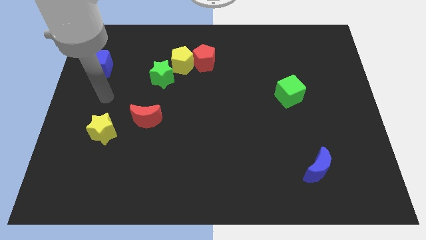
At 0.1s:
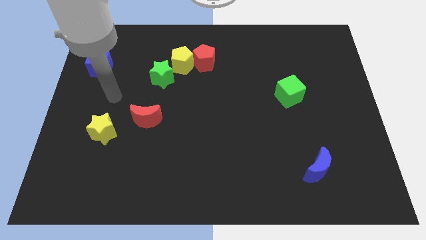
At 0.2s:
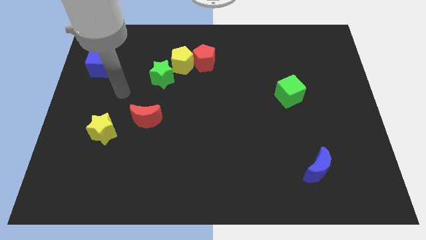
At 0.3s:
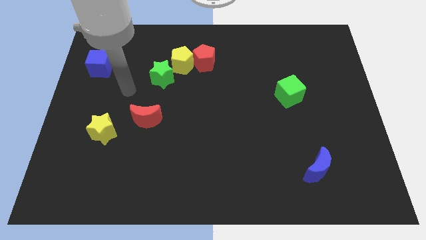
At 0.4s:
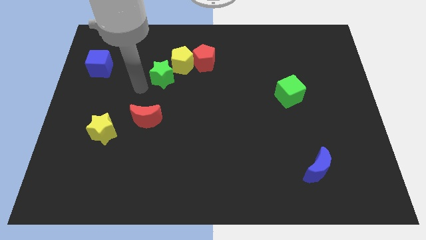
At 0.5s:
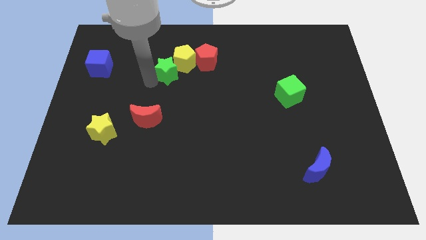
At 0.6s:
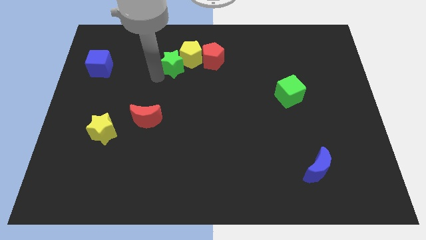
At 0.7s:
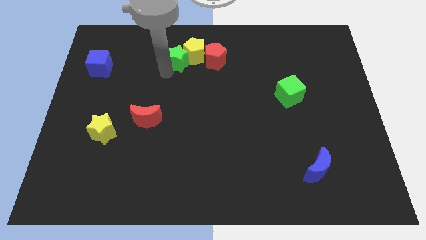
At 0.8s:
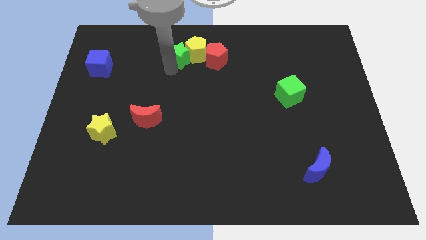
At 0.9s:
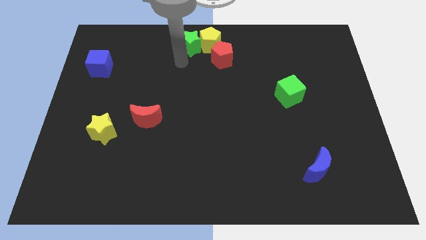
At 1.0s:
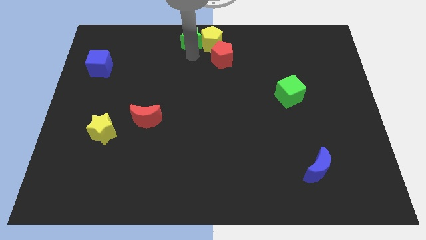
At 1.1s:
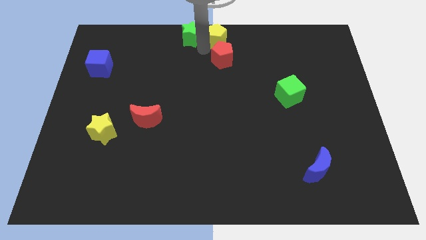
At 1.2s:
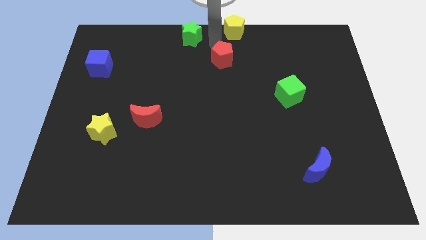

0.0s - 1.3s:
separate the red pentagon from the yellow pentagon

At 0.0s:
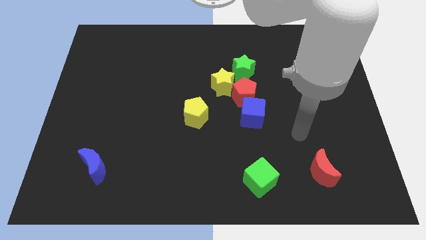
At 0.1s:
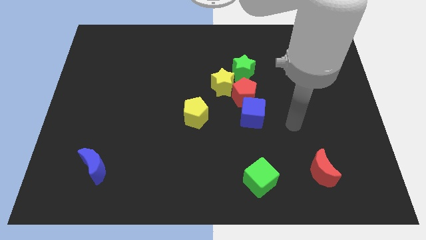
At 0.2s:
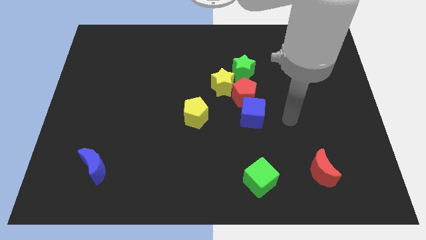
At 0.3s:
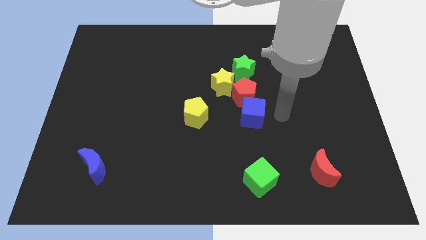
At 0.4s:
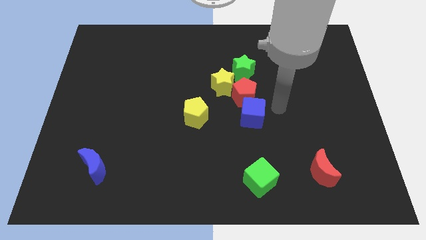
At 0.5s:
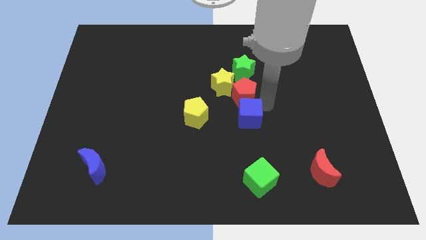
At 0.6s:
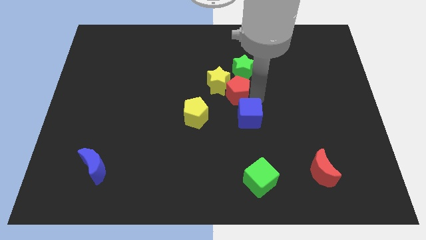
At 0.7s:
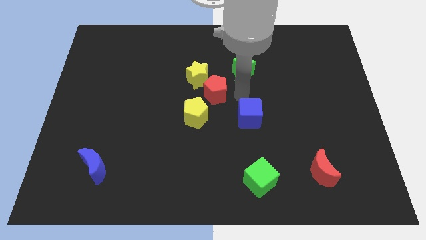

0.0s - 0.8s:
pull the blue cube apart from the red pentagon

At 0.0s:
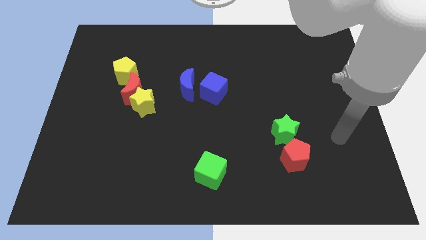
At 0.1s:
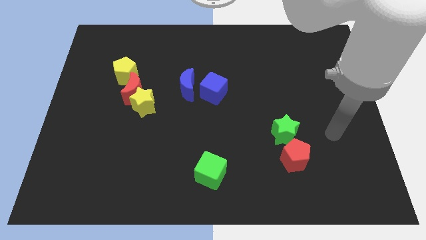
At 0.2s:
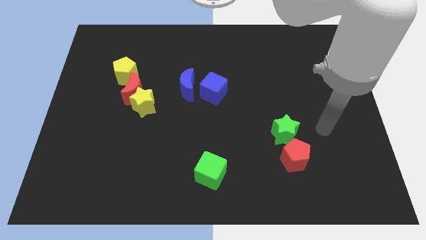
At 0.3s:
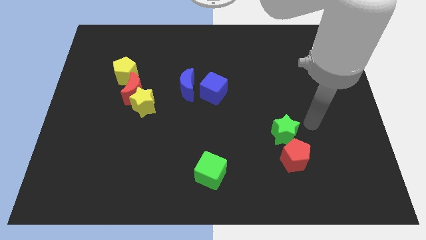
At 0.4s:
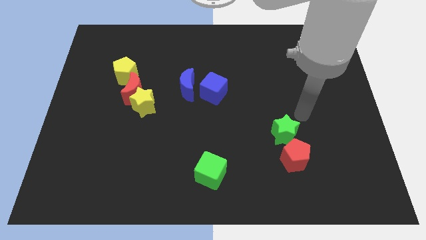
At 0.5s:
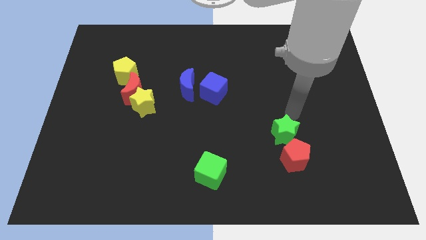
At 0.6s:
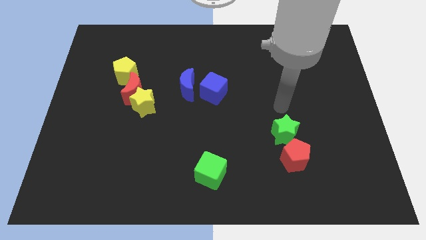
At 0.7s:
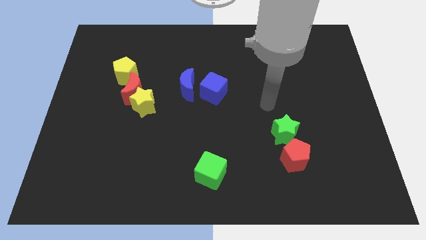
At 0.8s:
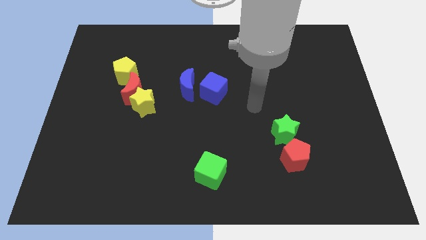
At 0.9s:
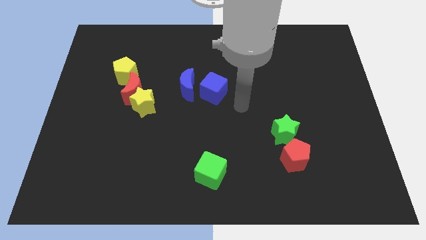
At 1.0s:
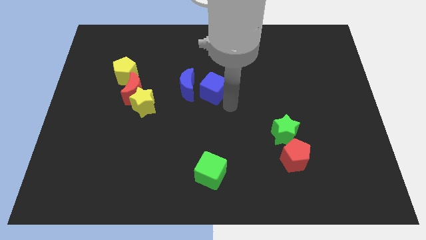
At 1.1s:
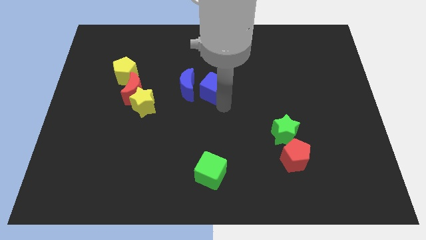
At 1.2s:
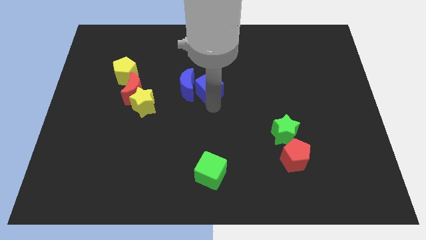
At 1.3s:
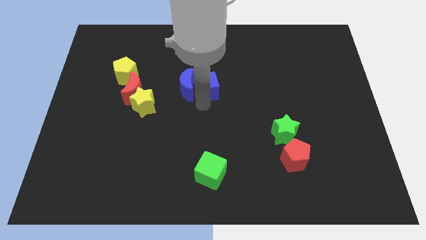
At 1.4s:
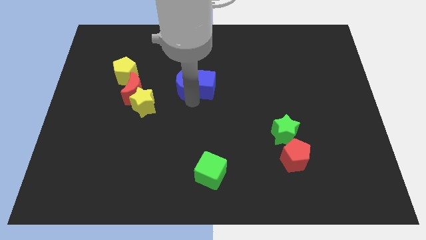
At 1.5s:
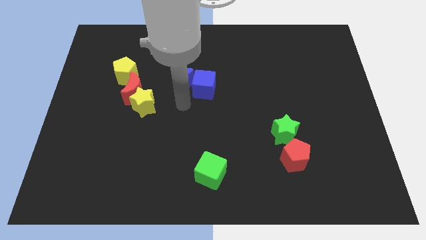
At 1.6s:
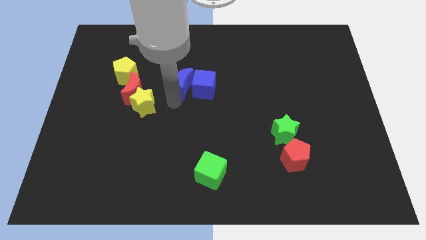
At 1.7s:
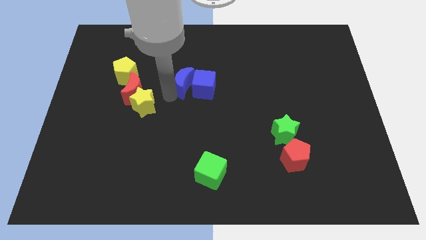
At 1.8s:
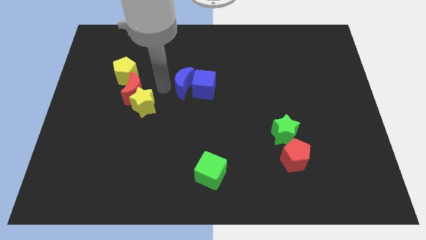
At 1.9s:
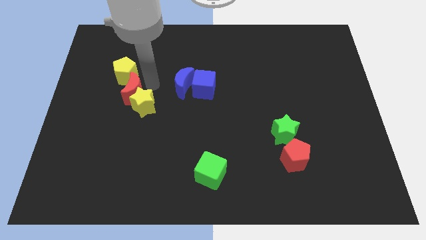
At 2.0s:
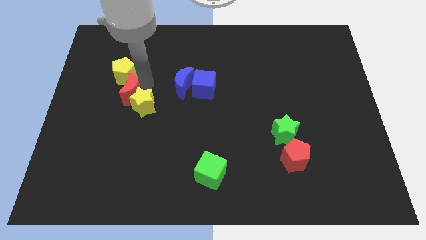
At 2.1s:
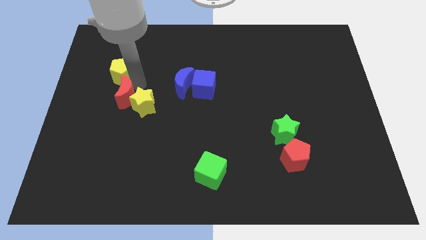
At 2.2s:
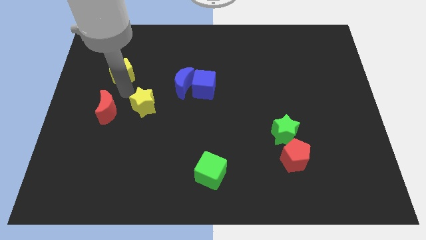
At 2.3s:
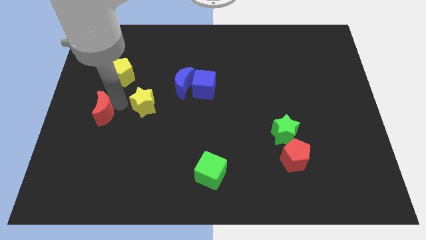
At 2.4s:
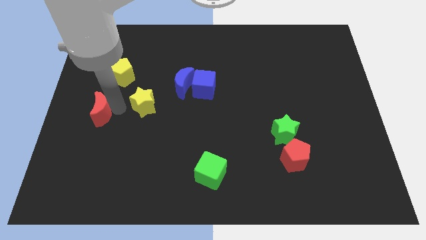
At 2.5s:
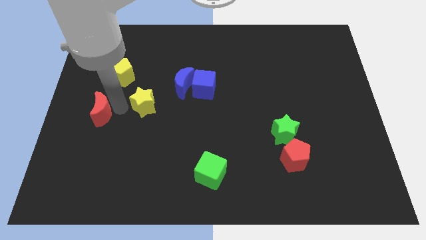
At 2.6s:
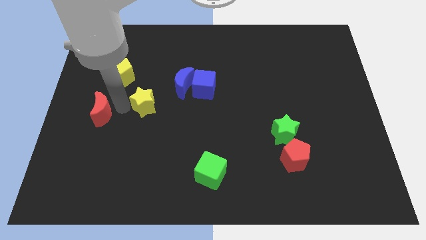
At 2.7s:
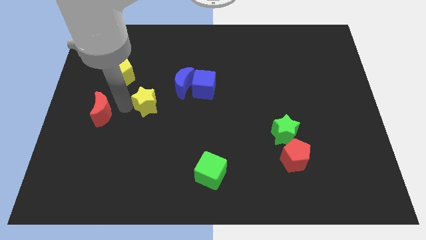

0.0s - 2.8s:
pull the yellow star apart from the red moon

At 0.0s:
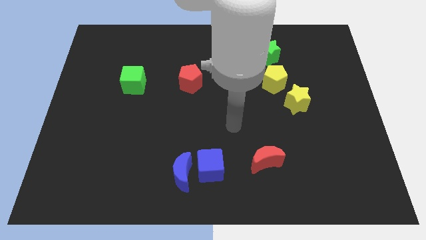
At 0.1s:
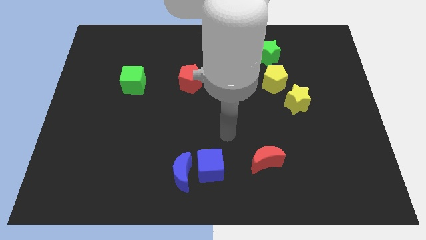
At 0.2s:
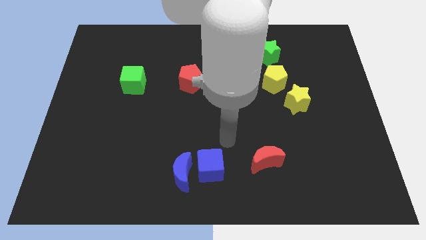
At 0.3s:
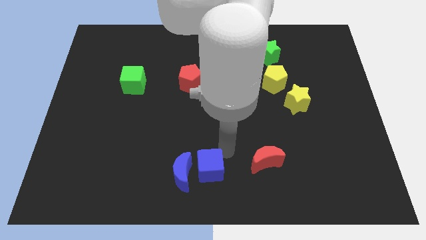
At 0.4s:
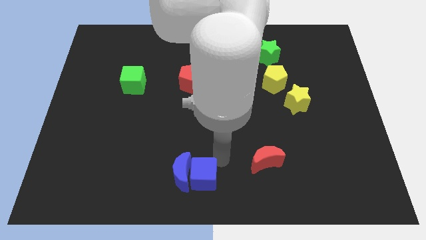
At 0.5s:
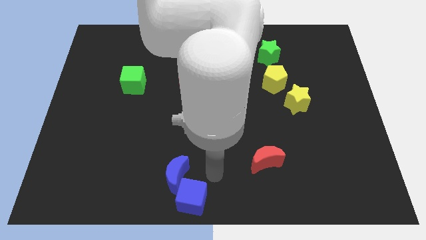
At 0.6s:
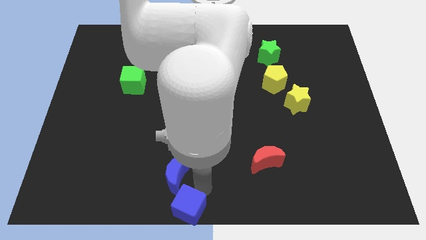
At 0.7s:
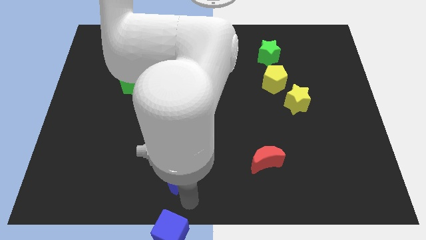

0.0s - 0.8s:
separate the blue moon from the blue cube

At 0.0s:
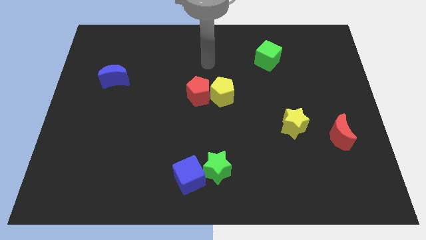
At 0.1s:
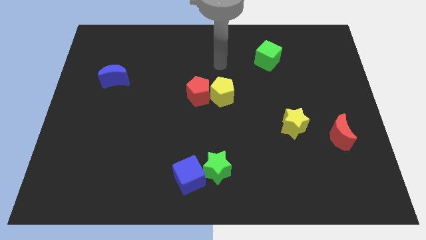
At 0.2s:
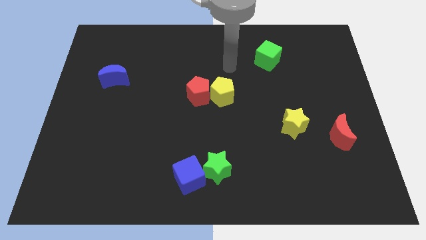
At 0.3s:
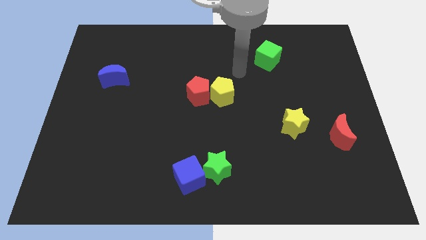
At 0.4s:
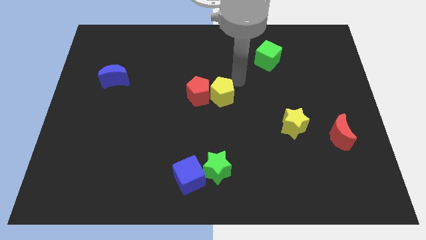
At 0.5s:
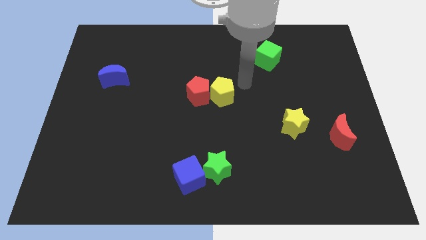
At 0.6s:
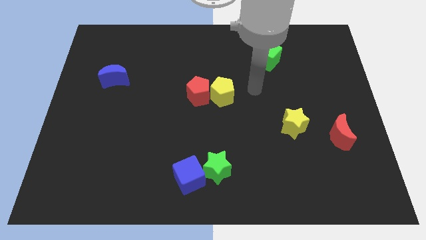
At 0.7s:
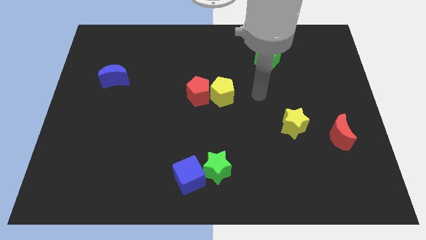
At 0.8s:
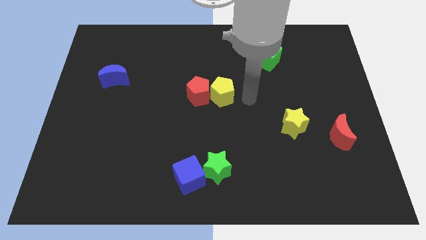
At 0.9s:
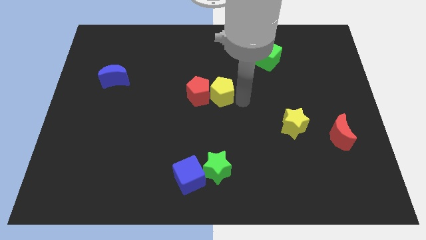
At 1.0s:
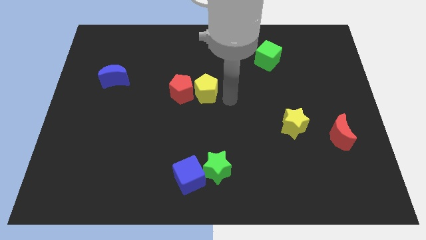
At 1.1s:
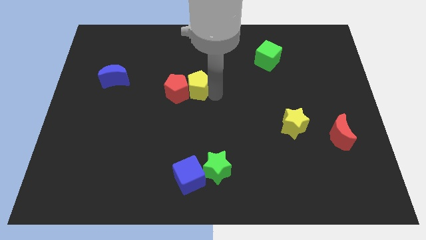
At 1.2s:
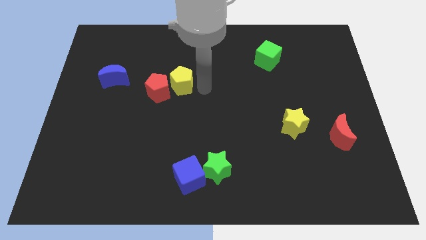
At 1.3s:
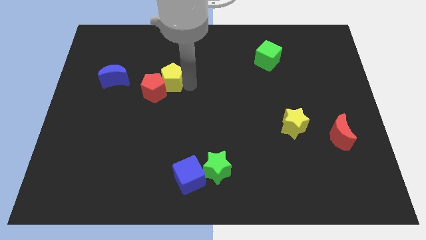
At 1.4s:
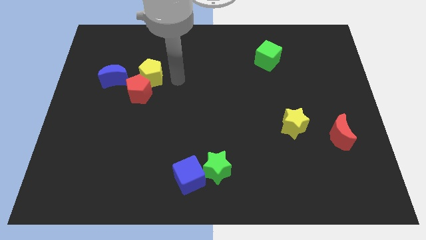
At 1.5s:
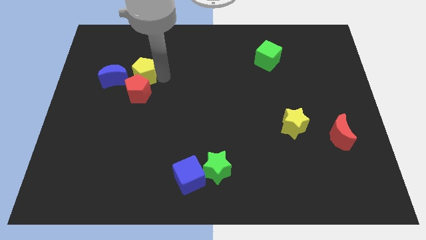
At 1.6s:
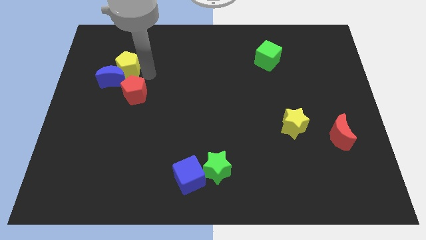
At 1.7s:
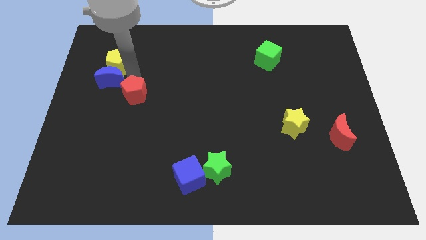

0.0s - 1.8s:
pull the red pentagon apart from the yellow pentagon

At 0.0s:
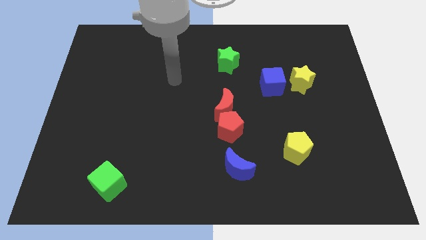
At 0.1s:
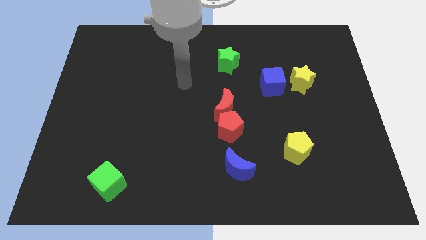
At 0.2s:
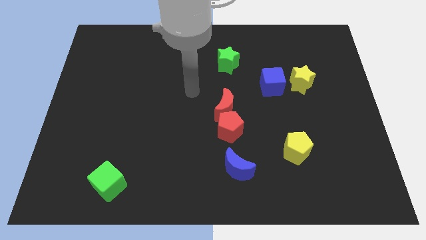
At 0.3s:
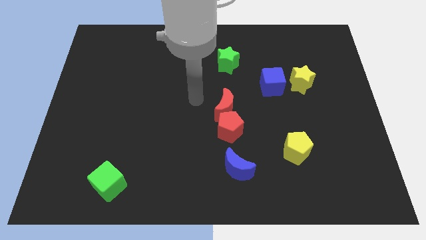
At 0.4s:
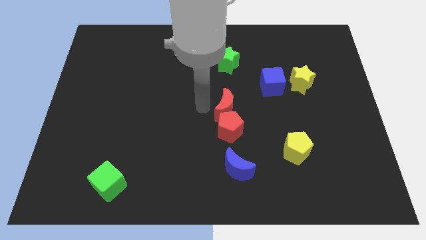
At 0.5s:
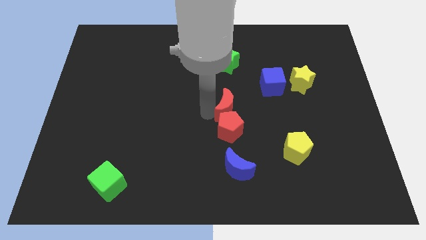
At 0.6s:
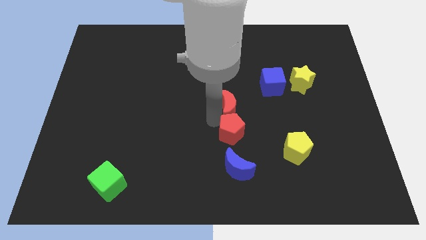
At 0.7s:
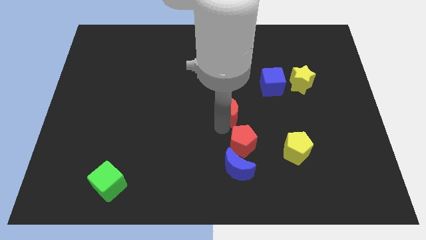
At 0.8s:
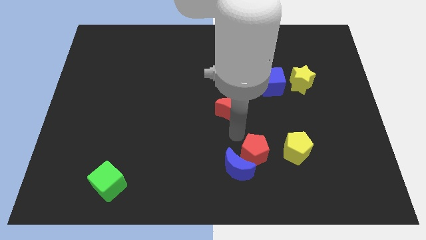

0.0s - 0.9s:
separate the red moon from the red pentagon

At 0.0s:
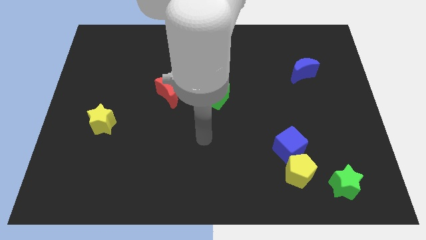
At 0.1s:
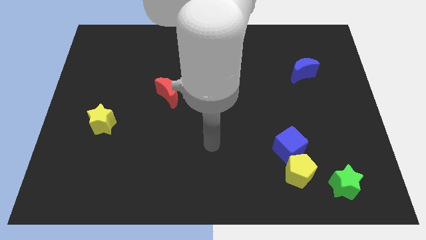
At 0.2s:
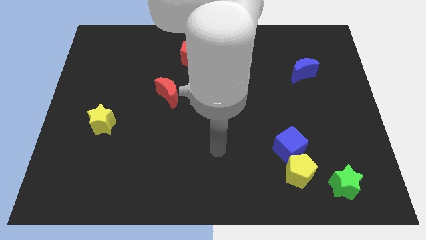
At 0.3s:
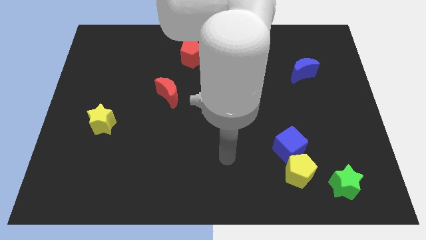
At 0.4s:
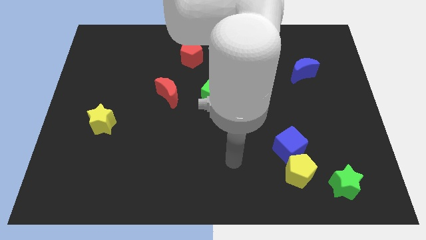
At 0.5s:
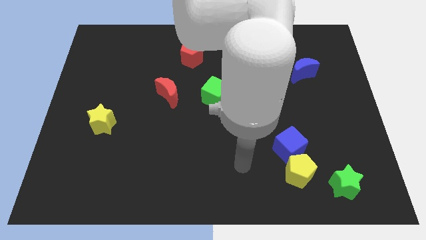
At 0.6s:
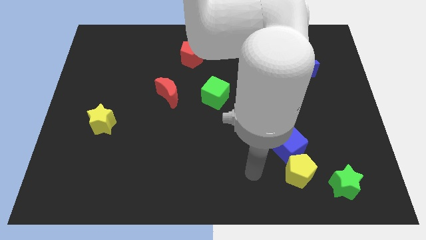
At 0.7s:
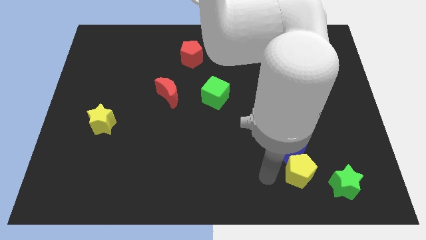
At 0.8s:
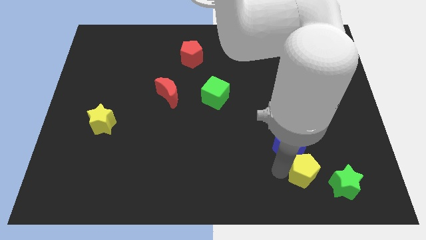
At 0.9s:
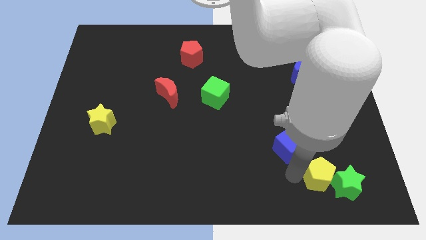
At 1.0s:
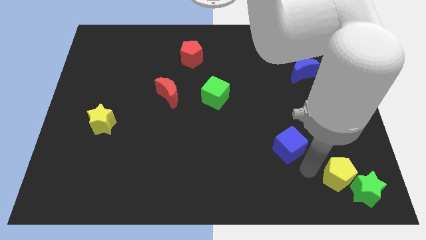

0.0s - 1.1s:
pull the blue cube apart from the yellow pentagon
